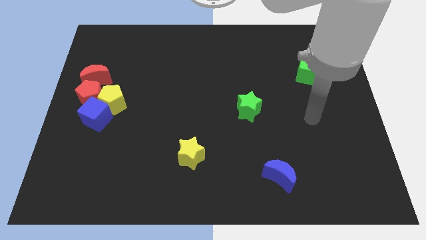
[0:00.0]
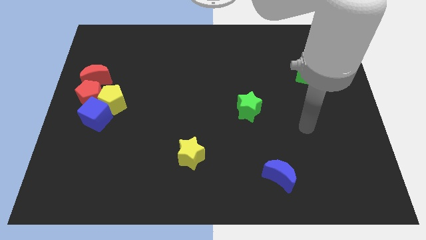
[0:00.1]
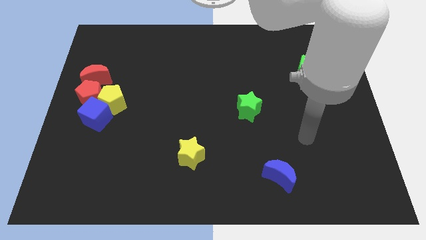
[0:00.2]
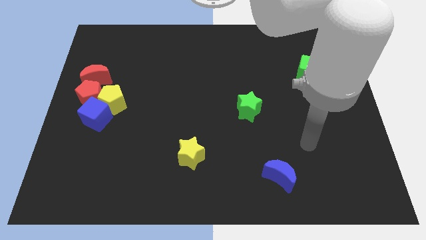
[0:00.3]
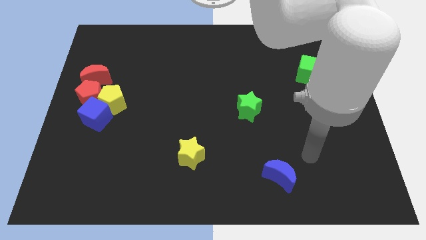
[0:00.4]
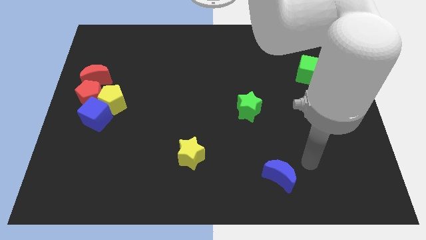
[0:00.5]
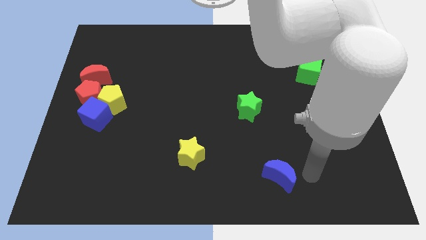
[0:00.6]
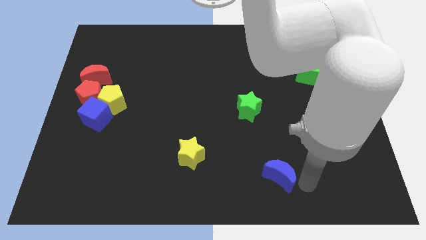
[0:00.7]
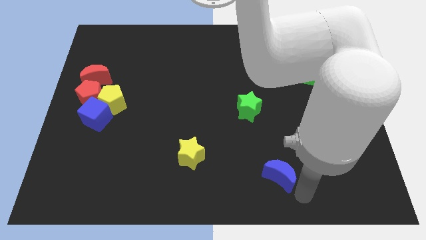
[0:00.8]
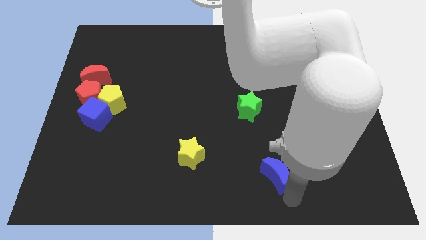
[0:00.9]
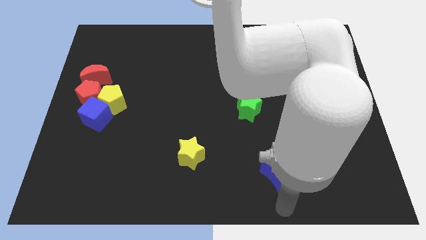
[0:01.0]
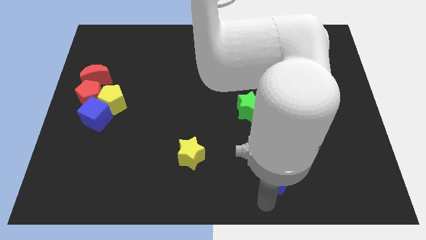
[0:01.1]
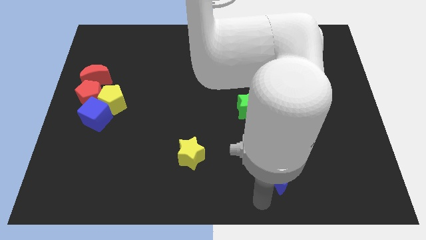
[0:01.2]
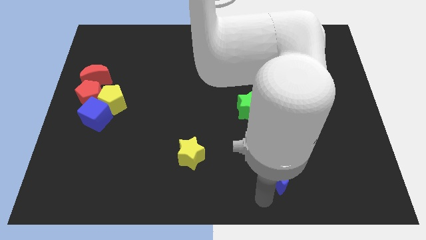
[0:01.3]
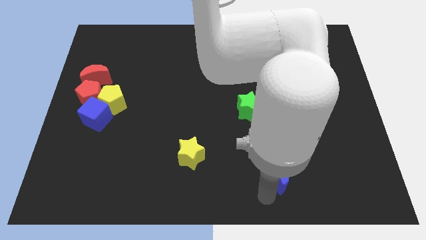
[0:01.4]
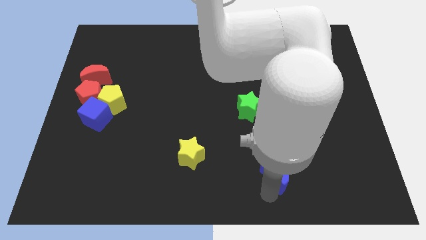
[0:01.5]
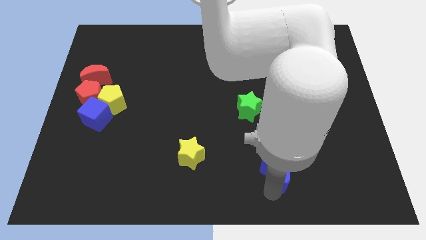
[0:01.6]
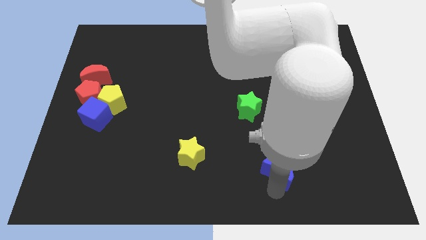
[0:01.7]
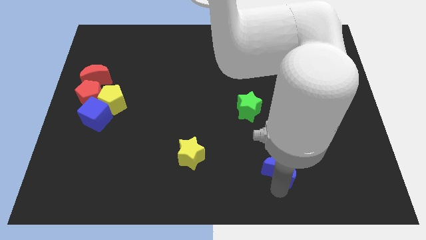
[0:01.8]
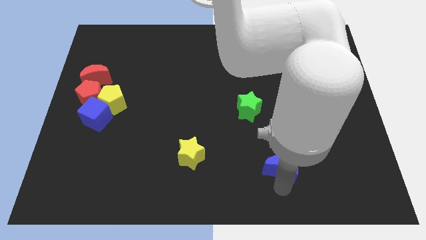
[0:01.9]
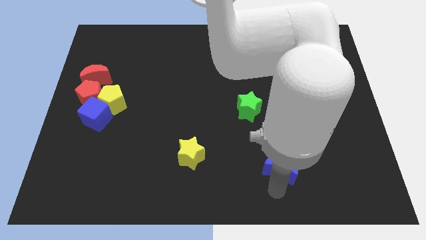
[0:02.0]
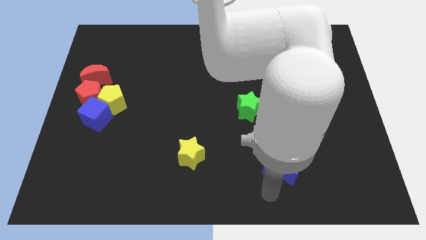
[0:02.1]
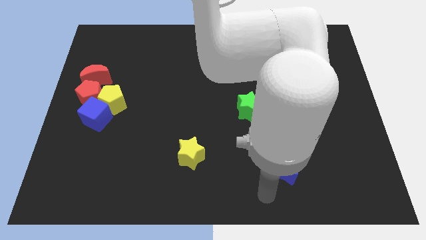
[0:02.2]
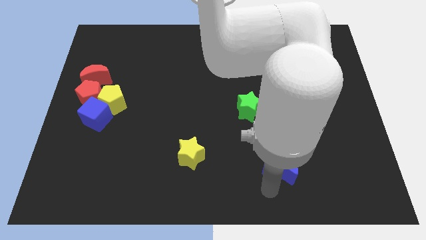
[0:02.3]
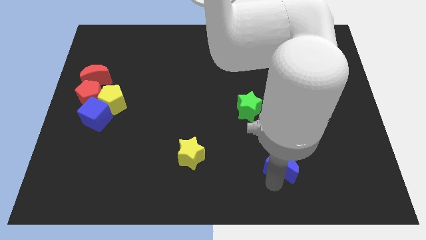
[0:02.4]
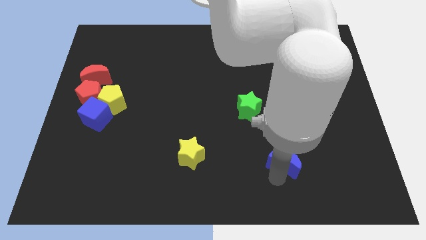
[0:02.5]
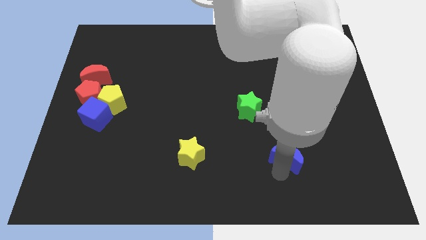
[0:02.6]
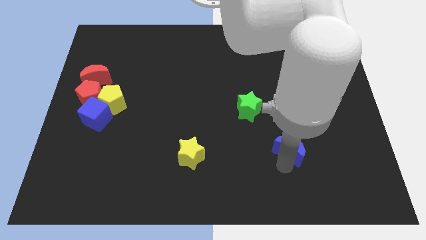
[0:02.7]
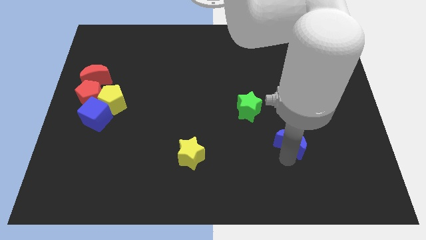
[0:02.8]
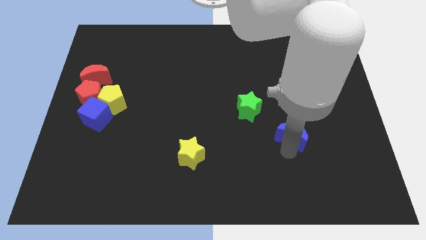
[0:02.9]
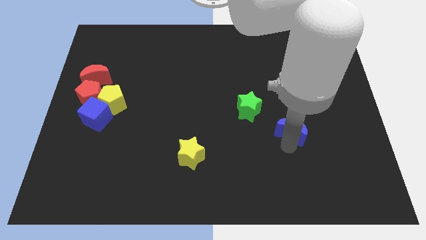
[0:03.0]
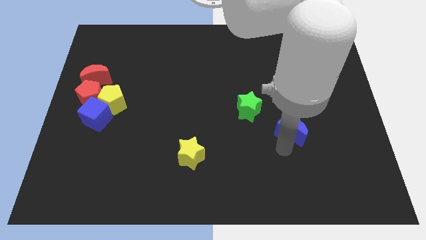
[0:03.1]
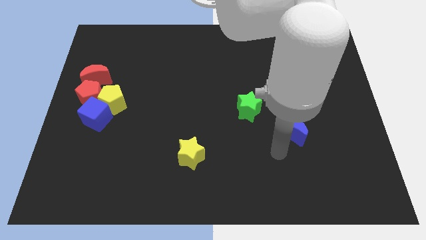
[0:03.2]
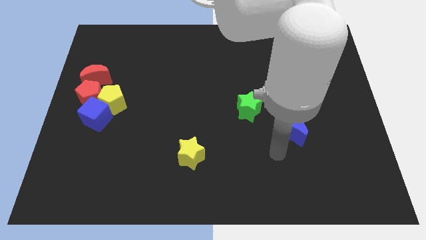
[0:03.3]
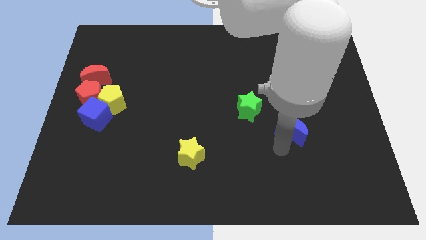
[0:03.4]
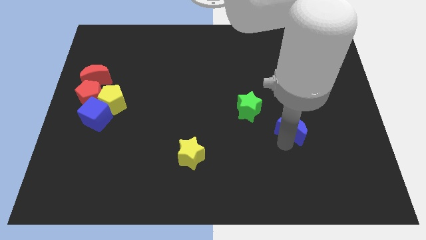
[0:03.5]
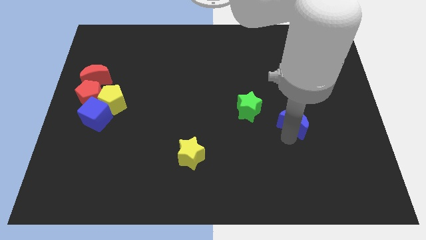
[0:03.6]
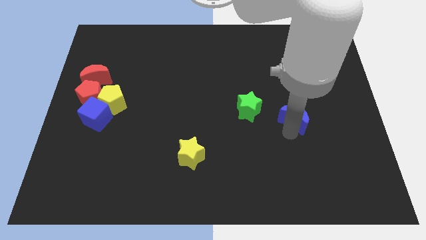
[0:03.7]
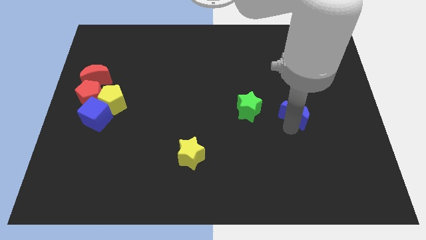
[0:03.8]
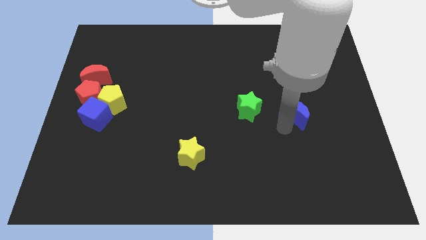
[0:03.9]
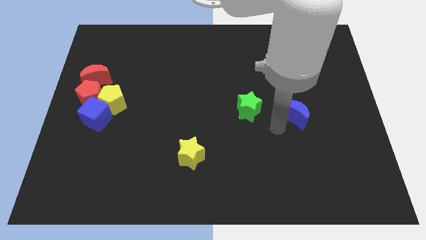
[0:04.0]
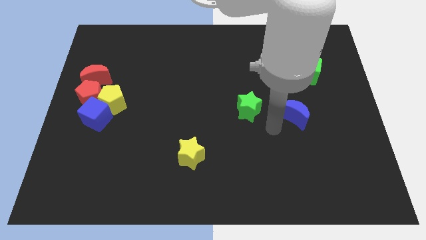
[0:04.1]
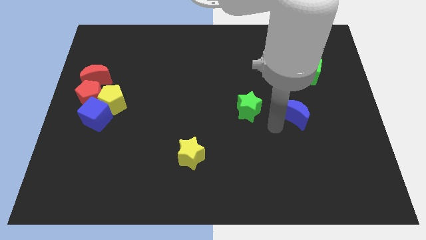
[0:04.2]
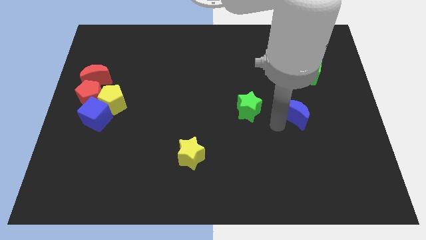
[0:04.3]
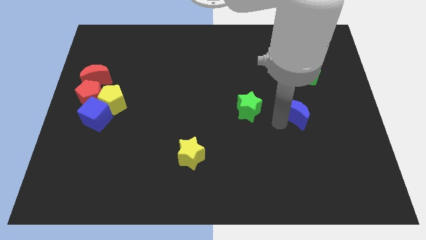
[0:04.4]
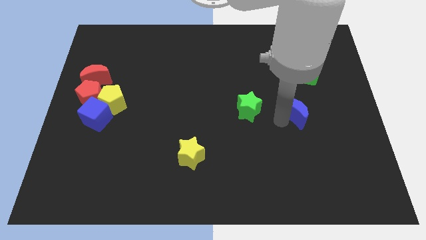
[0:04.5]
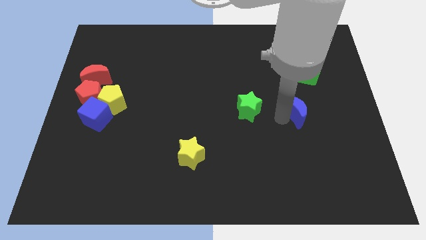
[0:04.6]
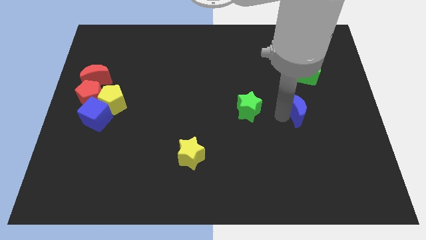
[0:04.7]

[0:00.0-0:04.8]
push the blue moon to the bottom of the green cube

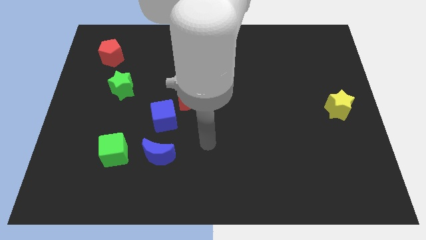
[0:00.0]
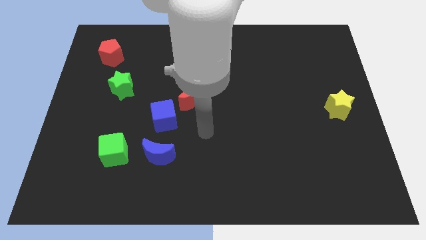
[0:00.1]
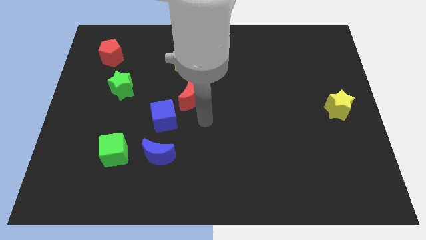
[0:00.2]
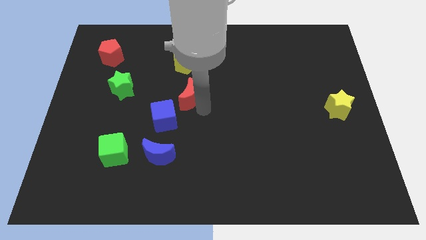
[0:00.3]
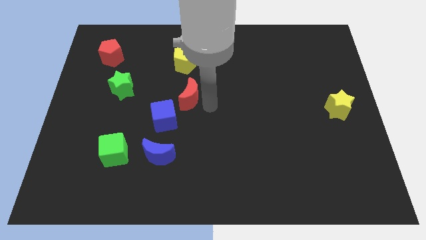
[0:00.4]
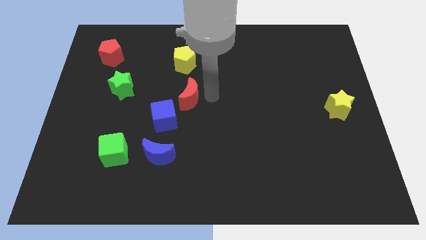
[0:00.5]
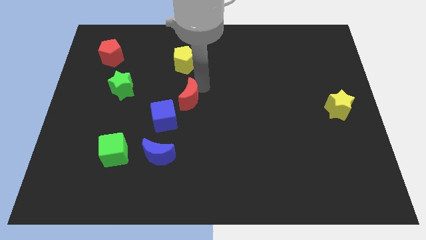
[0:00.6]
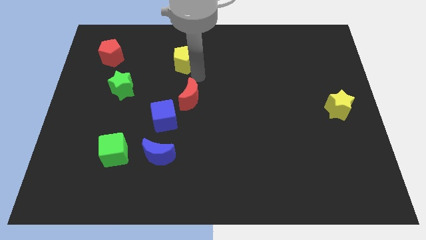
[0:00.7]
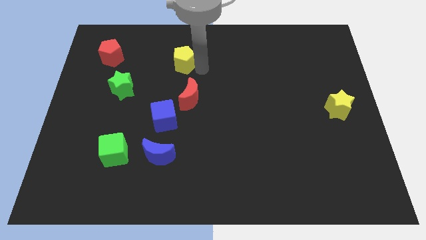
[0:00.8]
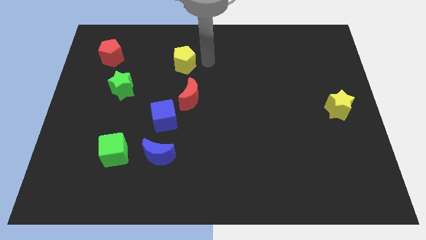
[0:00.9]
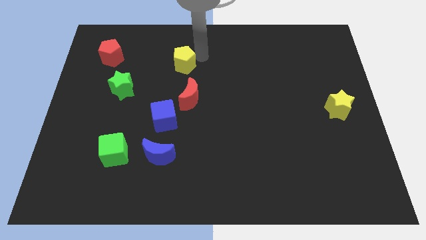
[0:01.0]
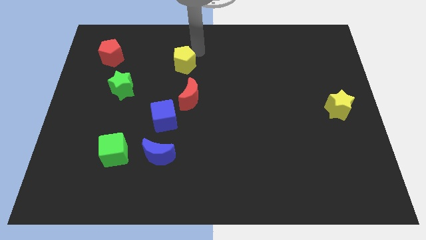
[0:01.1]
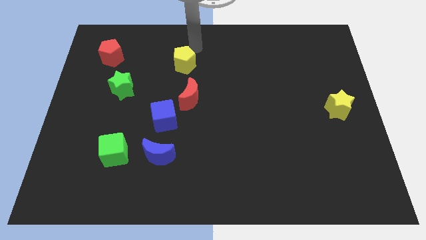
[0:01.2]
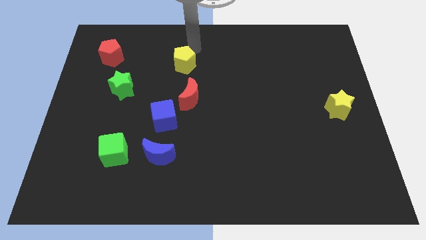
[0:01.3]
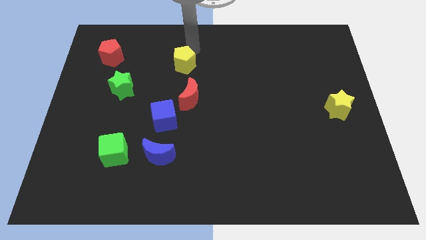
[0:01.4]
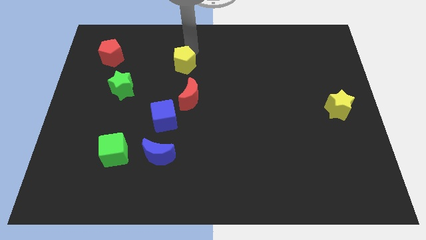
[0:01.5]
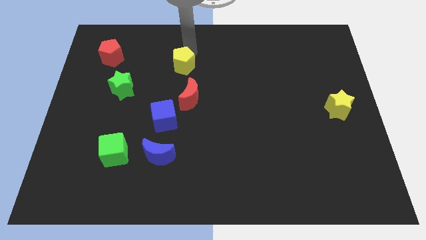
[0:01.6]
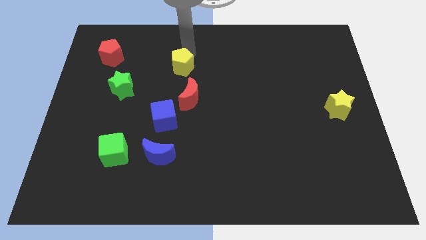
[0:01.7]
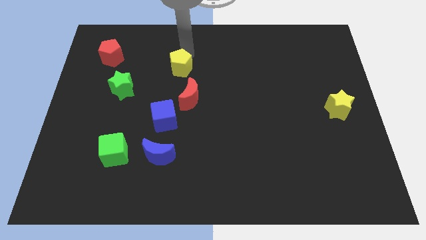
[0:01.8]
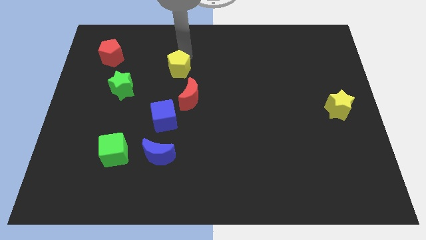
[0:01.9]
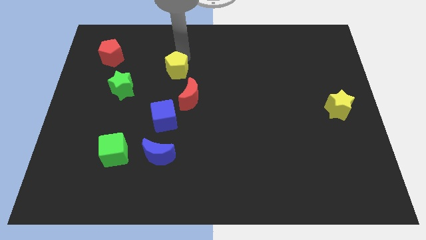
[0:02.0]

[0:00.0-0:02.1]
slide the yellow pentagon to the top side of the blue cube
